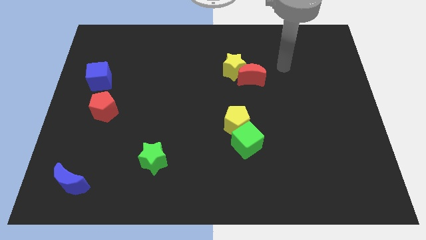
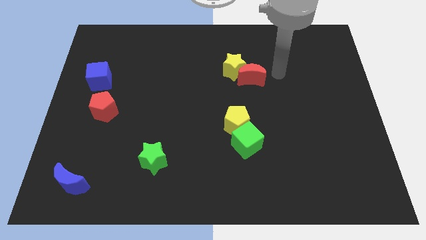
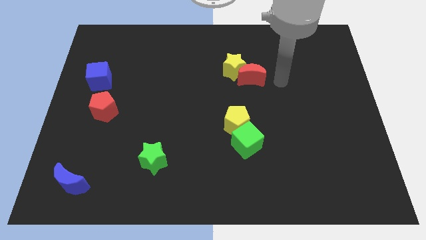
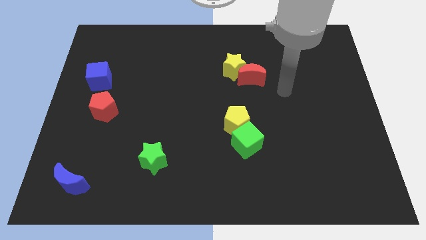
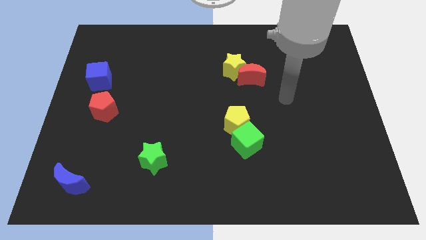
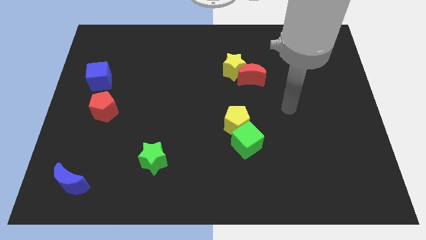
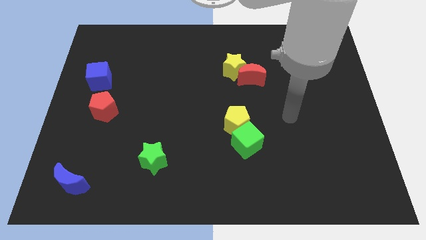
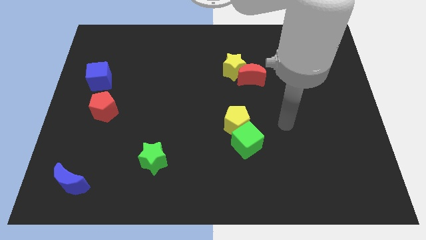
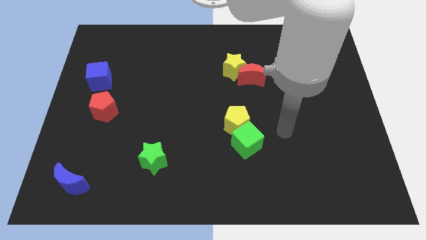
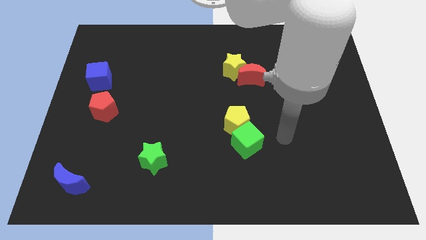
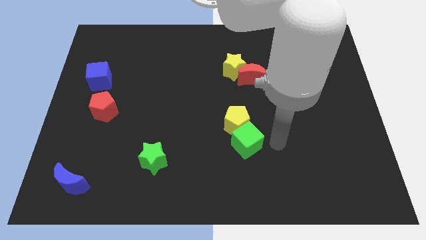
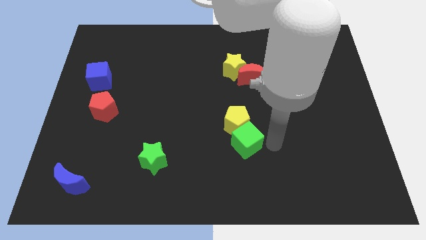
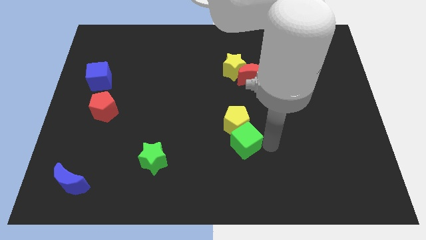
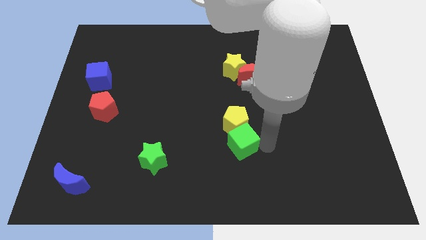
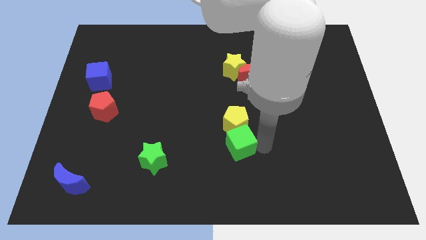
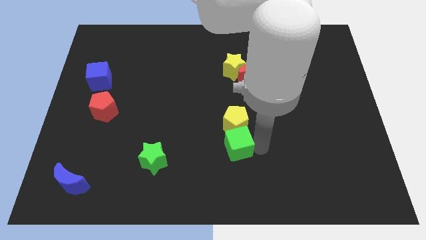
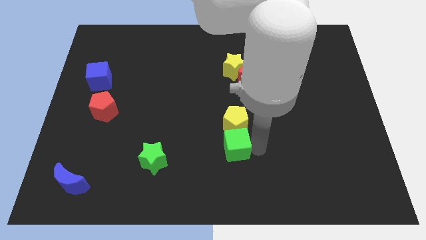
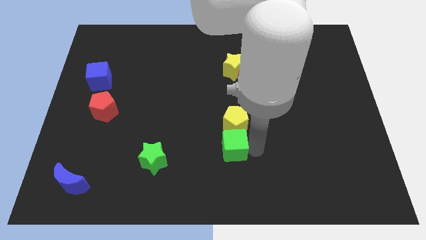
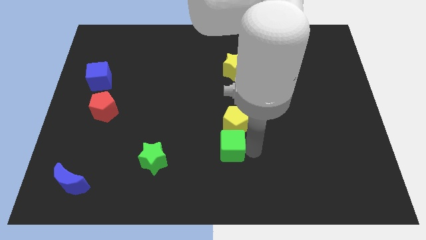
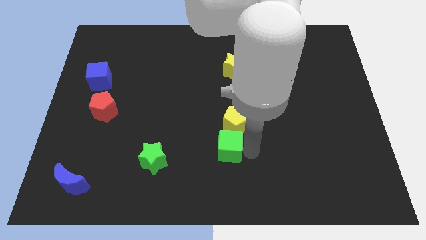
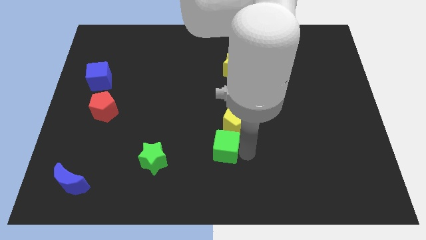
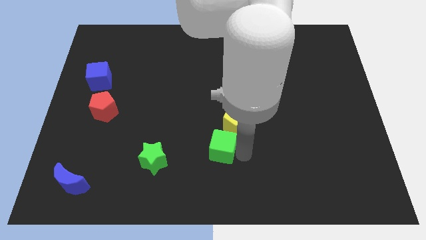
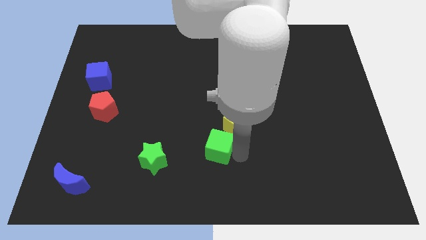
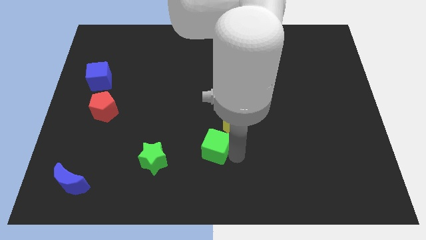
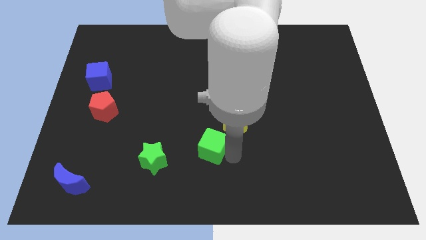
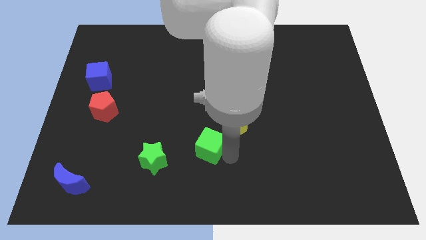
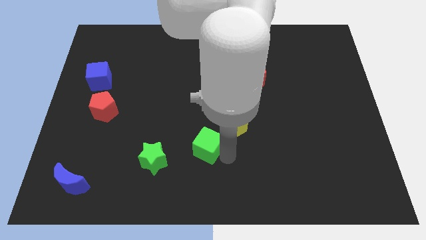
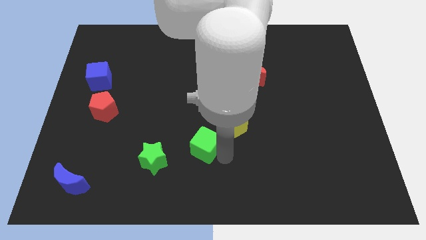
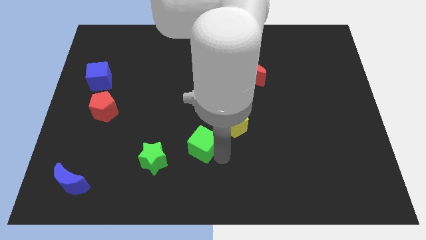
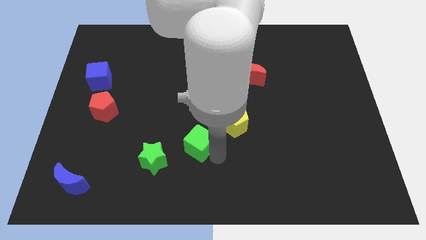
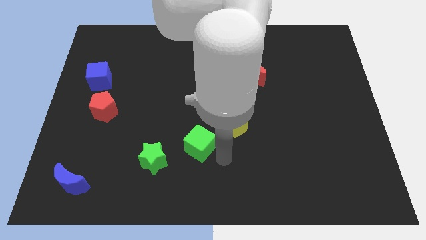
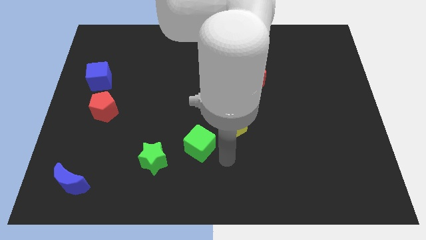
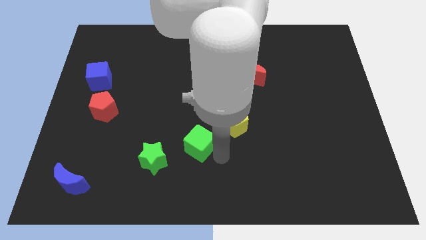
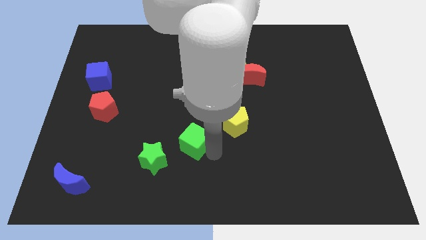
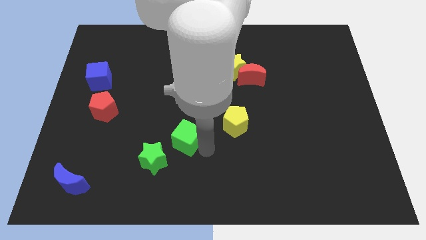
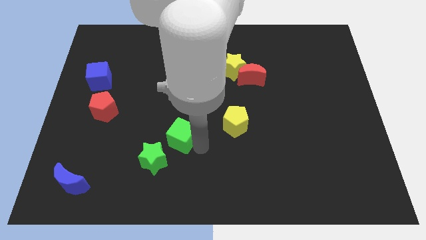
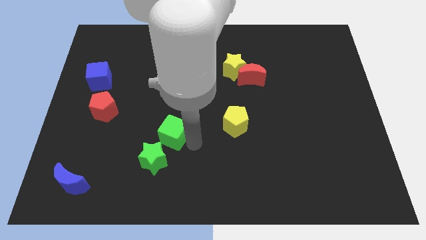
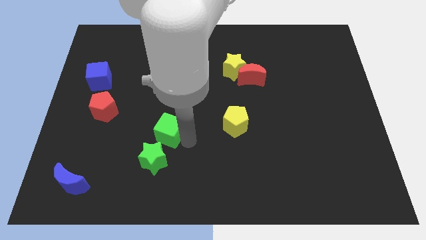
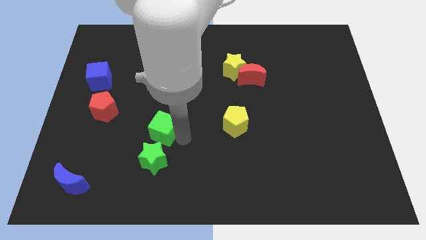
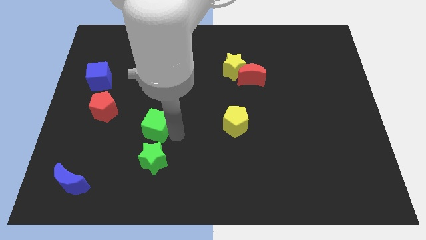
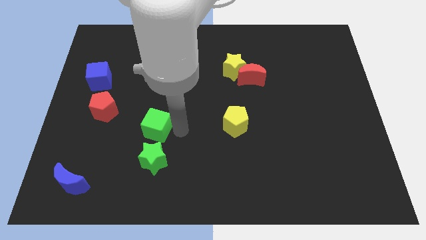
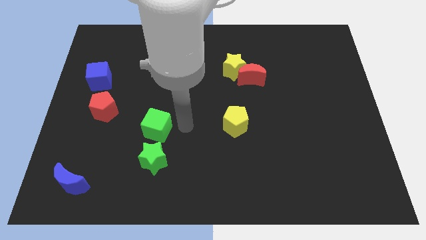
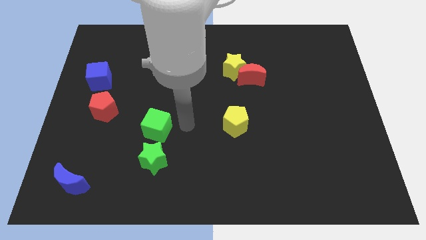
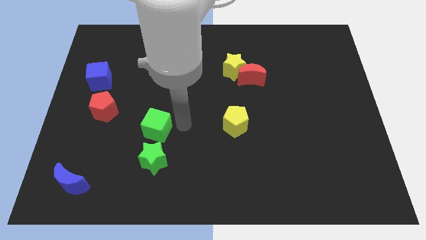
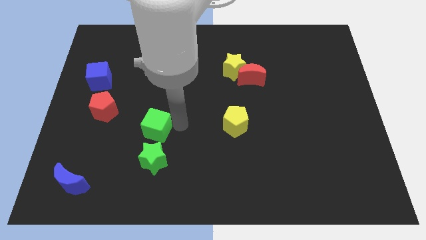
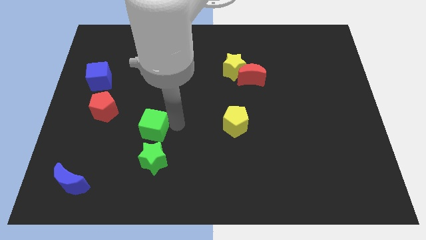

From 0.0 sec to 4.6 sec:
move the green cube left

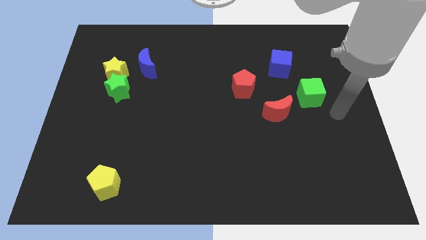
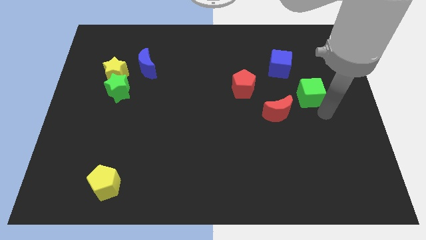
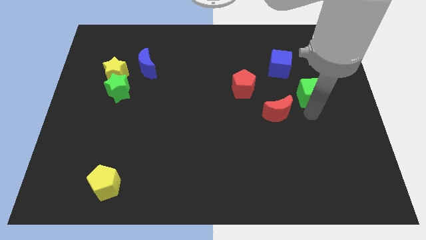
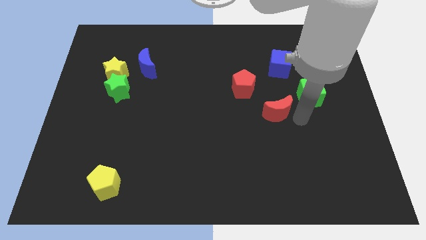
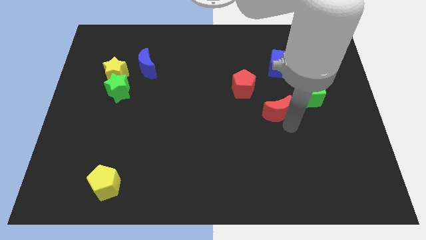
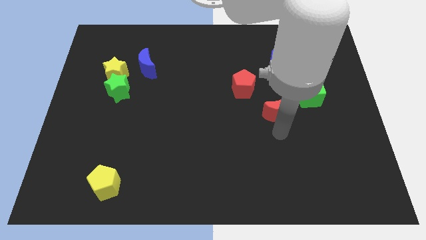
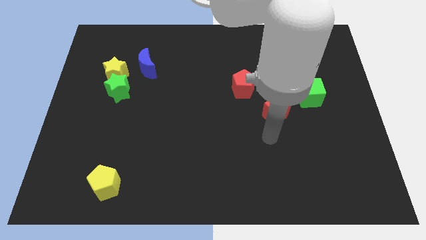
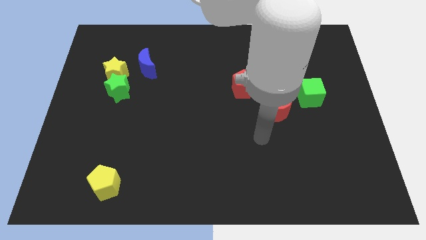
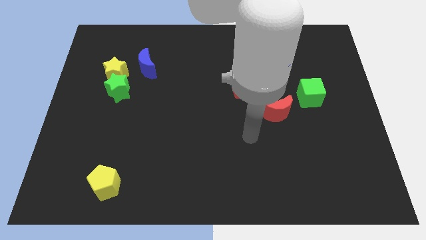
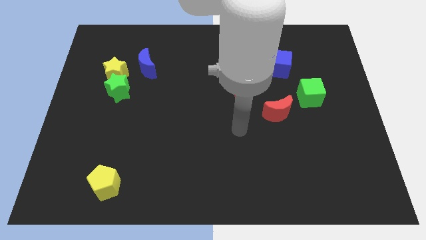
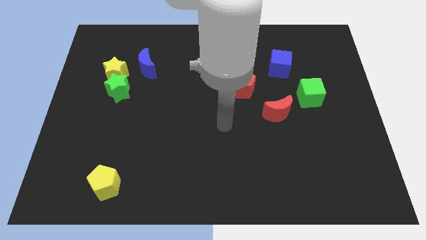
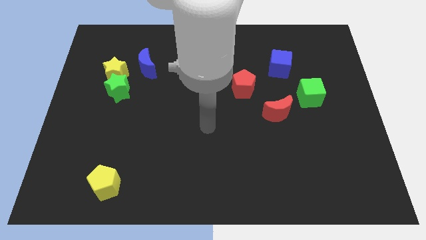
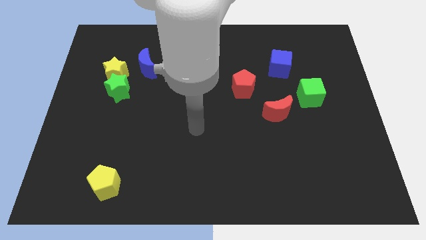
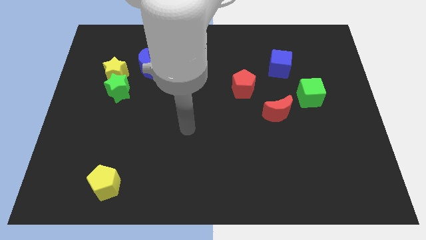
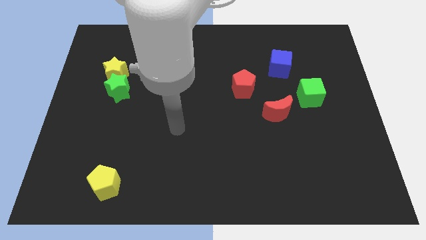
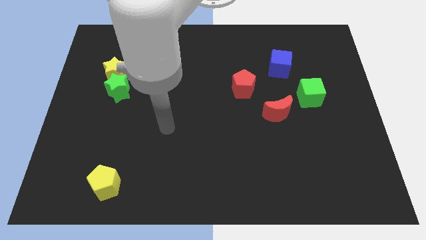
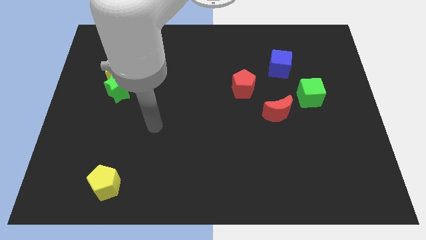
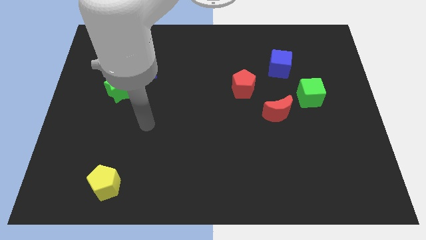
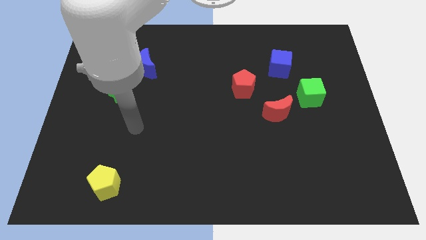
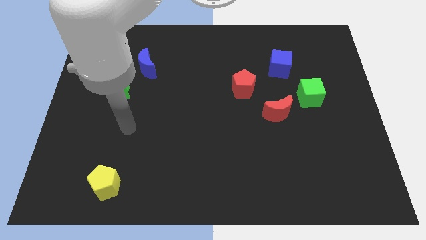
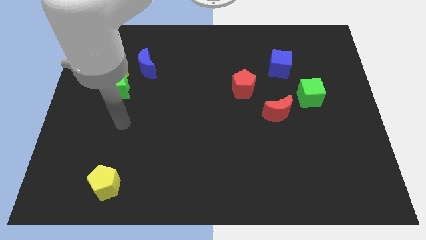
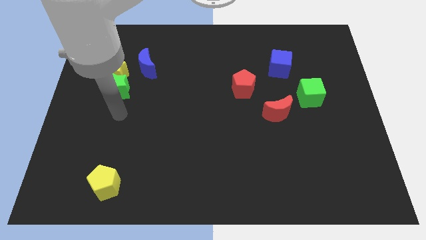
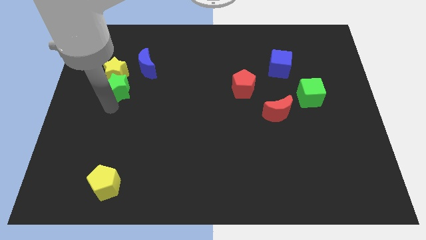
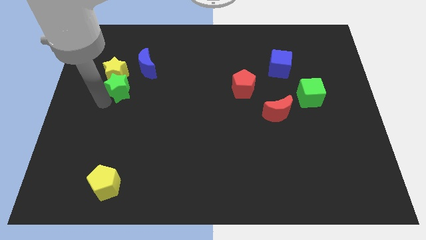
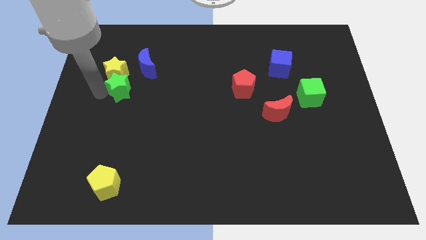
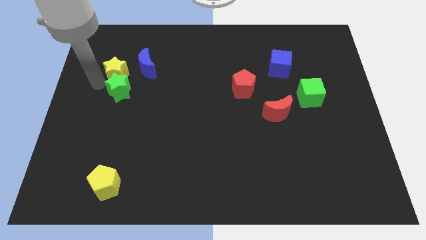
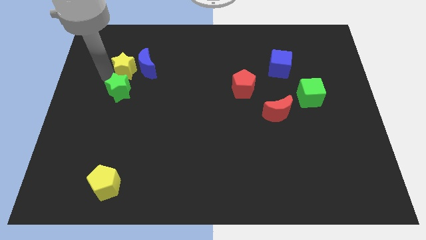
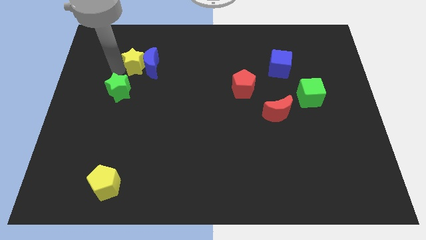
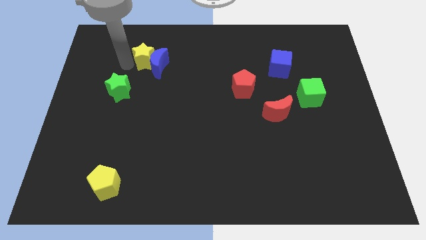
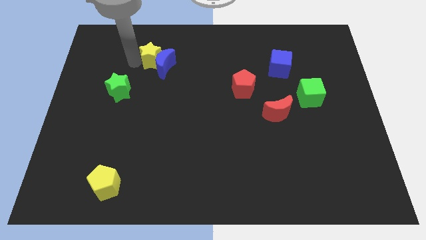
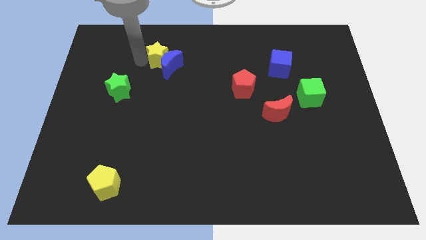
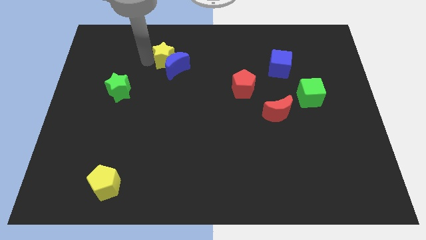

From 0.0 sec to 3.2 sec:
slightly push the blue moon right
